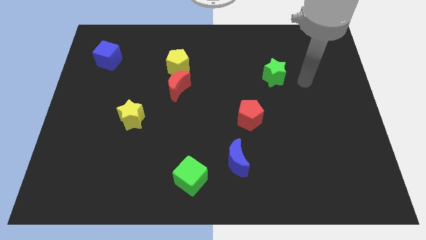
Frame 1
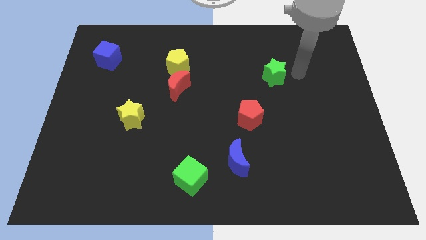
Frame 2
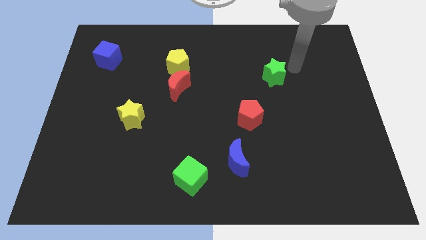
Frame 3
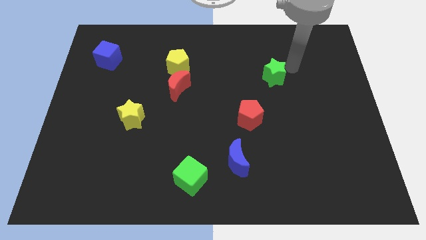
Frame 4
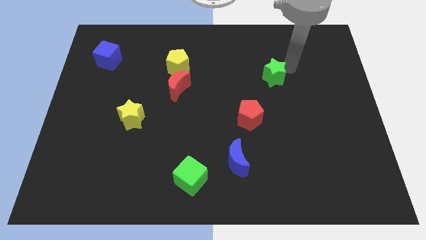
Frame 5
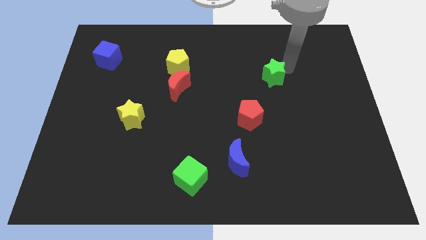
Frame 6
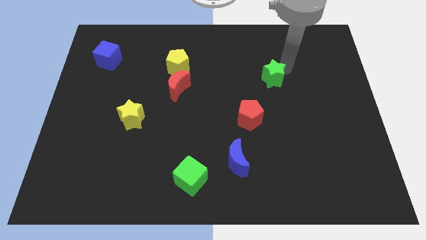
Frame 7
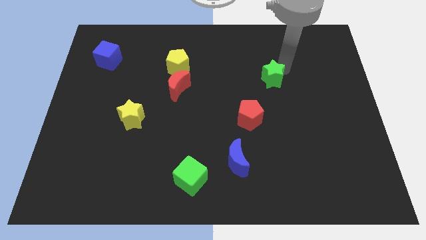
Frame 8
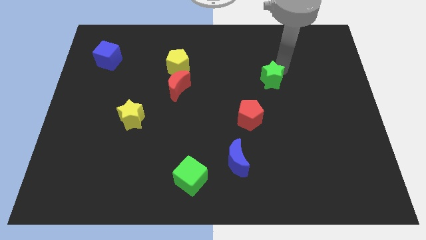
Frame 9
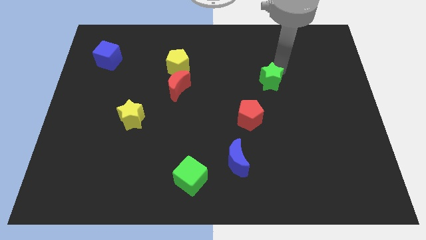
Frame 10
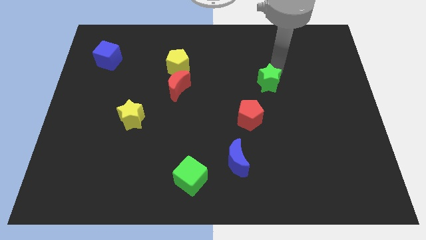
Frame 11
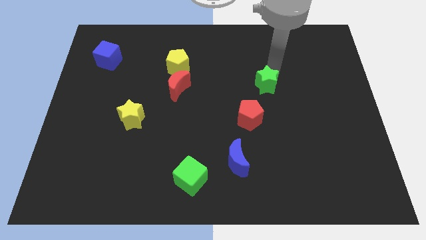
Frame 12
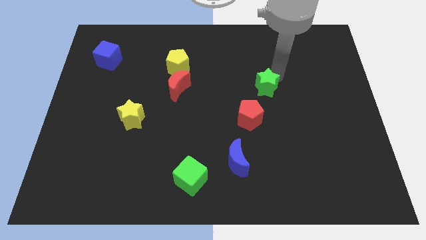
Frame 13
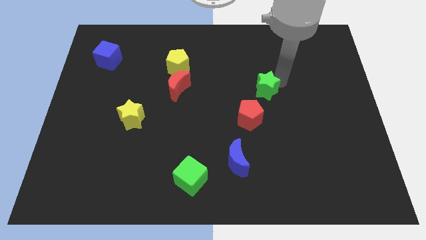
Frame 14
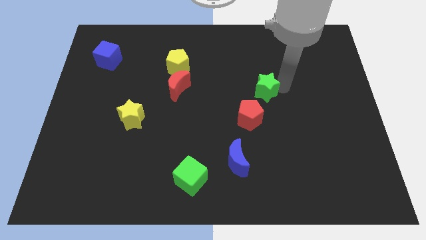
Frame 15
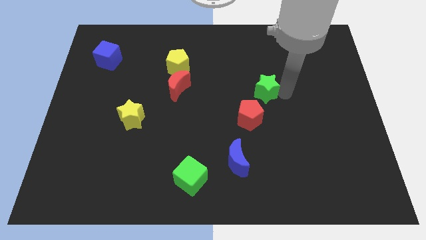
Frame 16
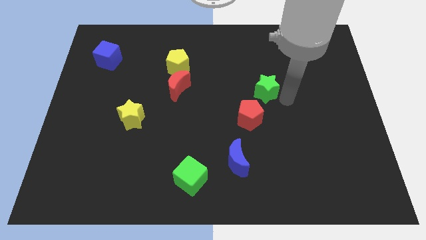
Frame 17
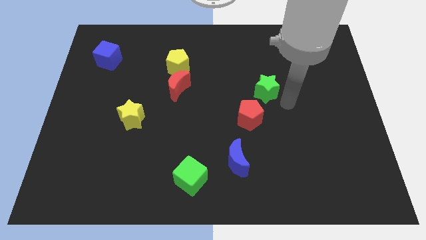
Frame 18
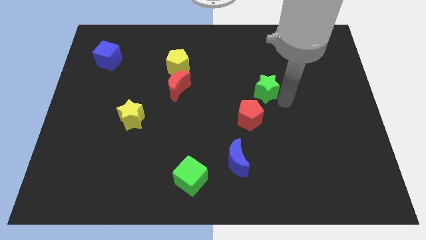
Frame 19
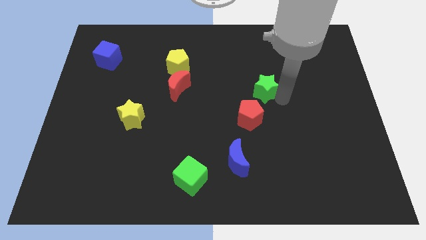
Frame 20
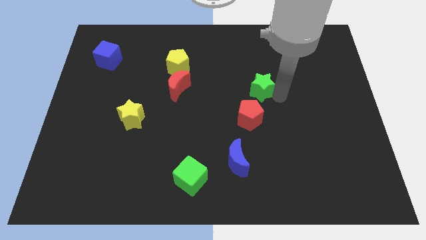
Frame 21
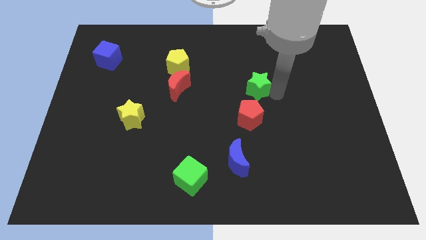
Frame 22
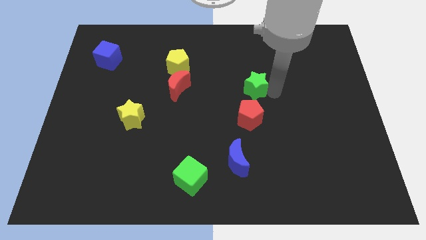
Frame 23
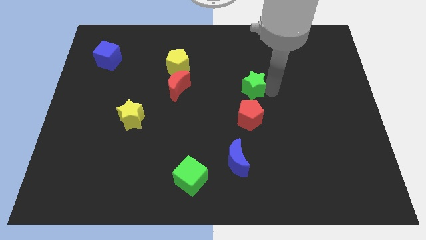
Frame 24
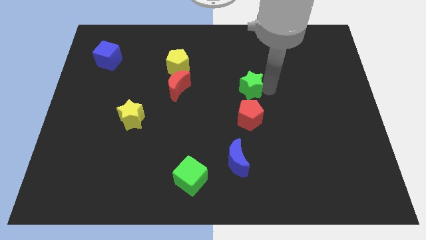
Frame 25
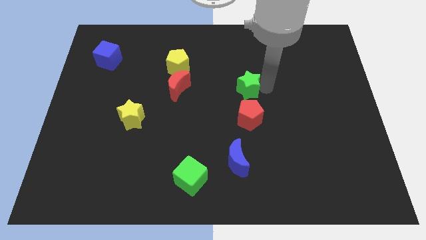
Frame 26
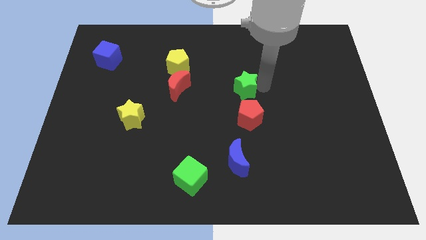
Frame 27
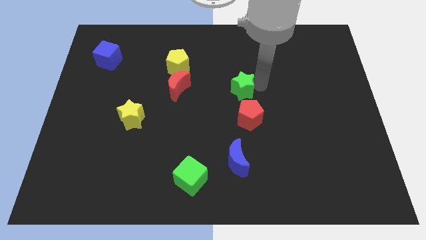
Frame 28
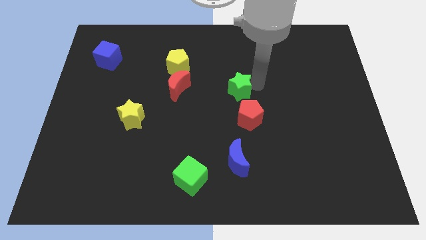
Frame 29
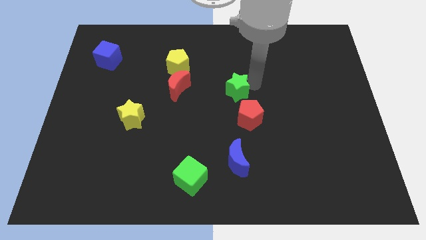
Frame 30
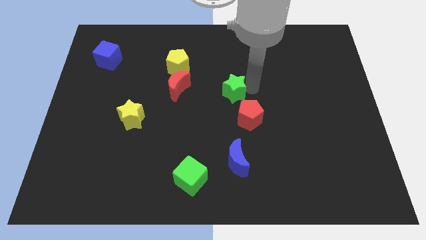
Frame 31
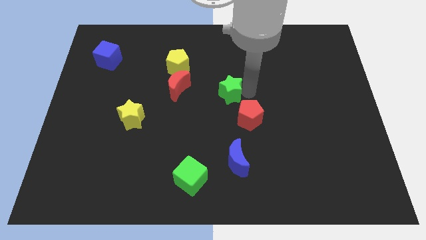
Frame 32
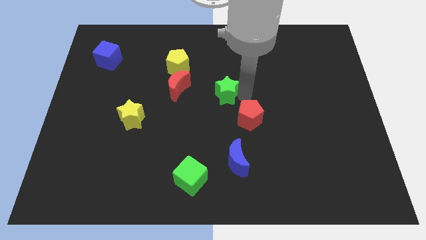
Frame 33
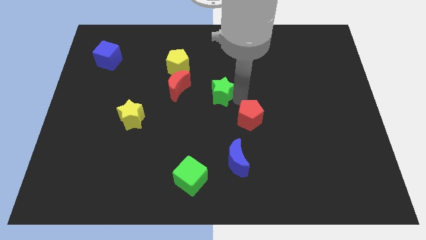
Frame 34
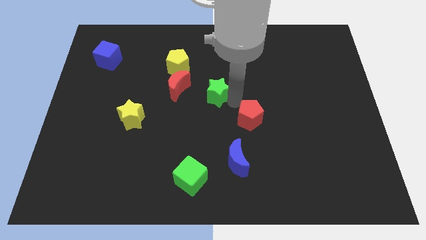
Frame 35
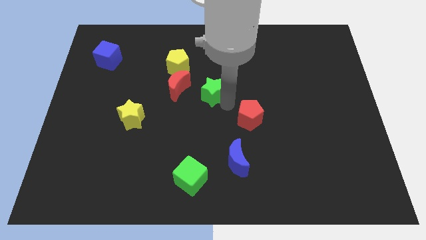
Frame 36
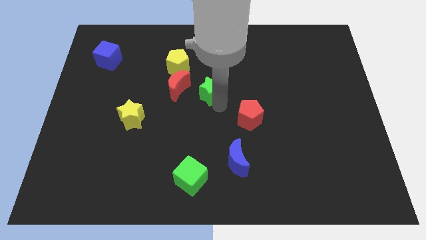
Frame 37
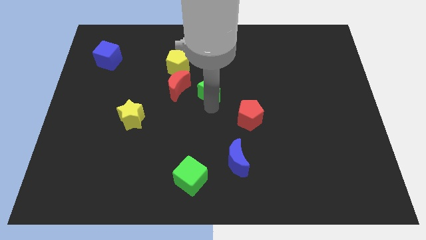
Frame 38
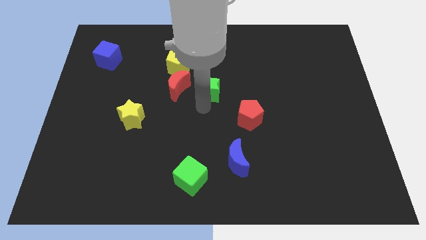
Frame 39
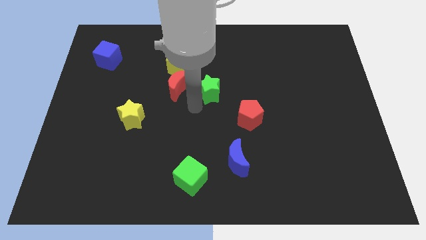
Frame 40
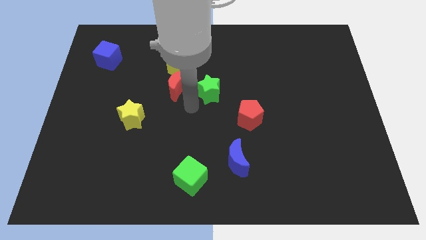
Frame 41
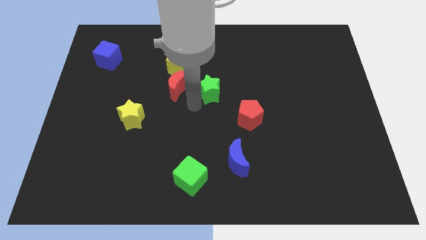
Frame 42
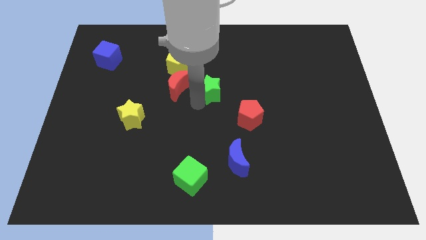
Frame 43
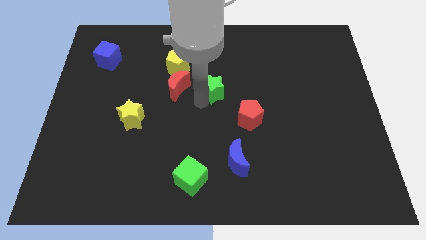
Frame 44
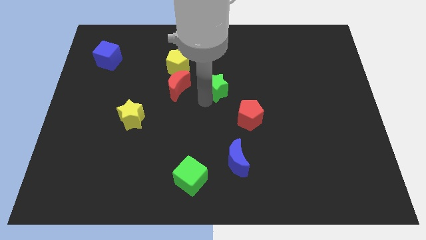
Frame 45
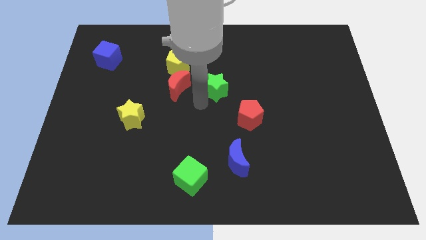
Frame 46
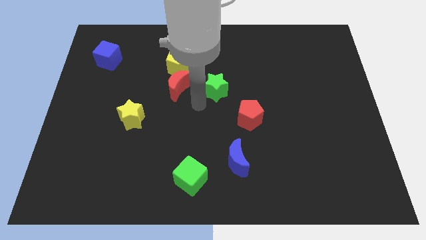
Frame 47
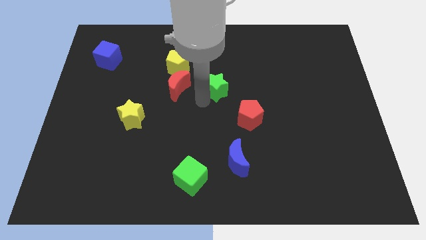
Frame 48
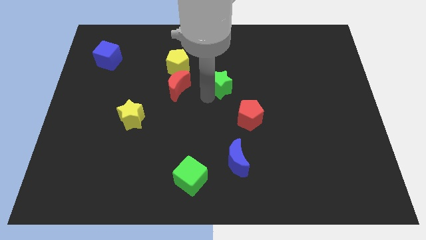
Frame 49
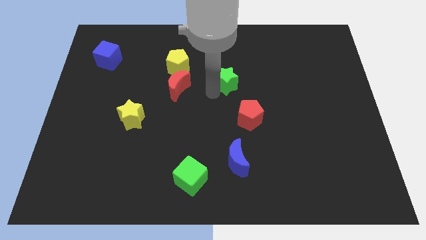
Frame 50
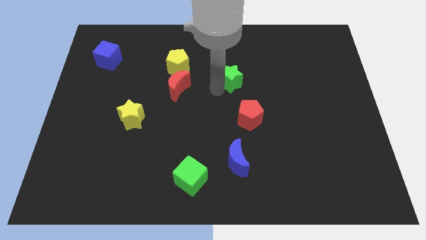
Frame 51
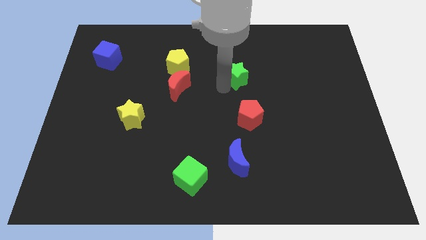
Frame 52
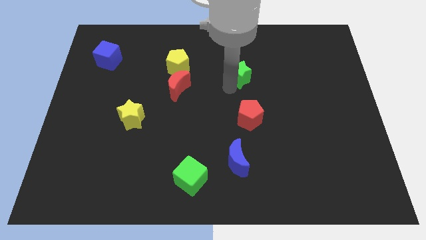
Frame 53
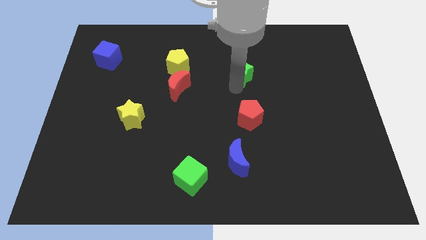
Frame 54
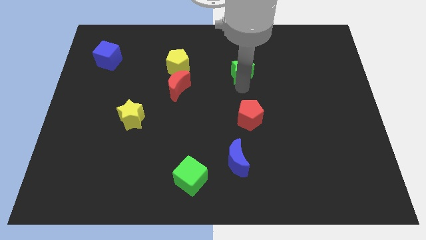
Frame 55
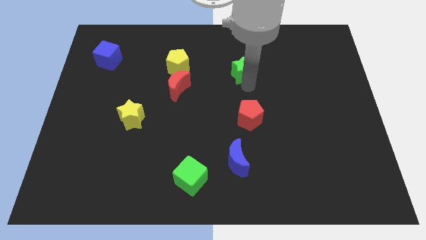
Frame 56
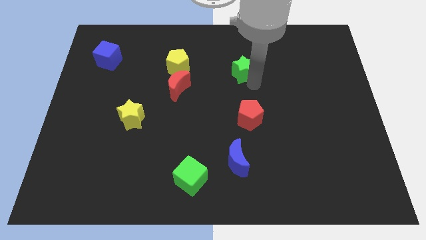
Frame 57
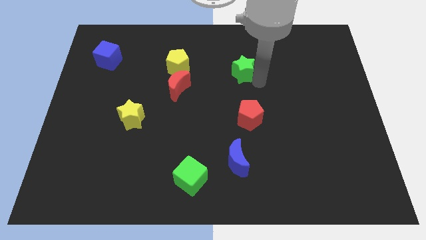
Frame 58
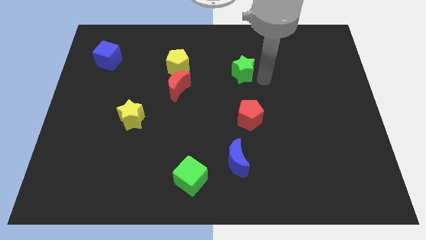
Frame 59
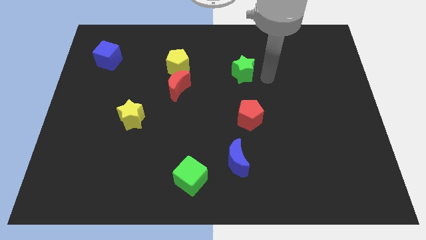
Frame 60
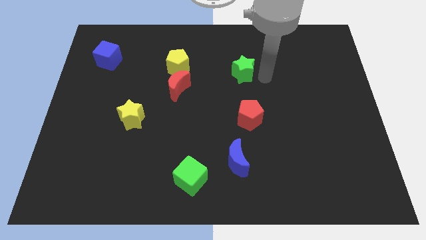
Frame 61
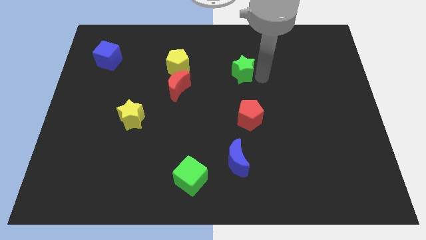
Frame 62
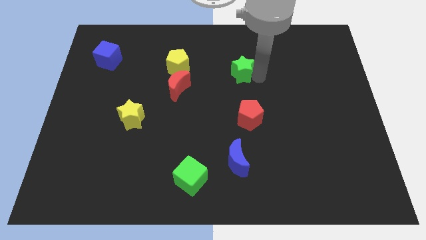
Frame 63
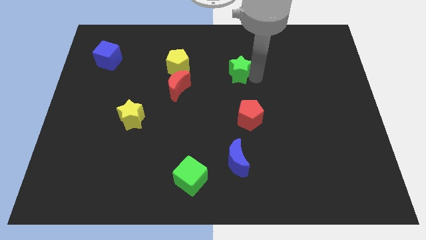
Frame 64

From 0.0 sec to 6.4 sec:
put the green star to the right of the yellow pentagon
